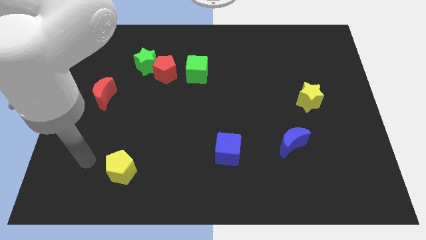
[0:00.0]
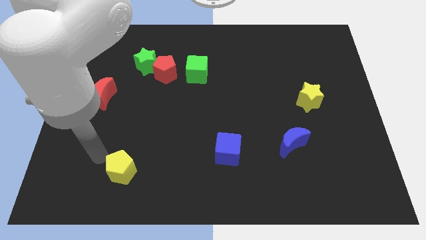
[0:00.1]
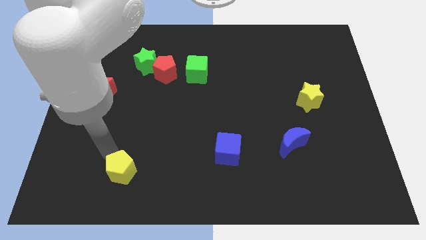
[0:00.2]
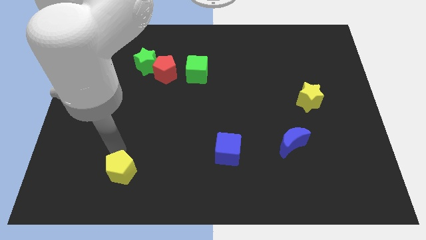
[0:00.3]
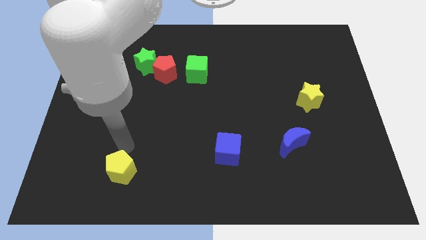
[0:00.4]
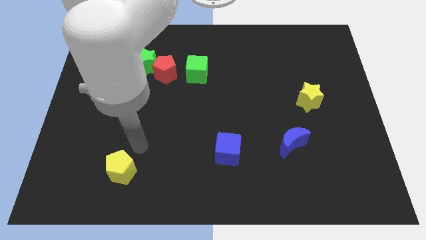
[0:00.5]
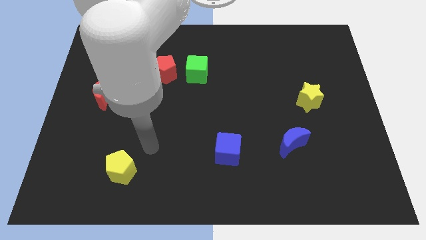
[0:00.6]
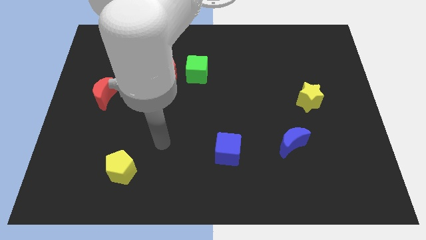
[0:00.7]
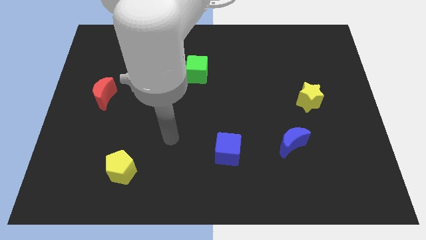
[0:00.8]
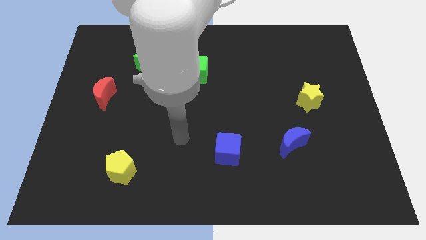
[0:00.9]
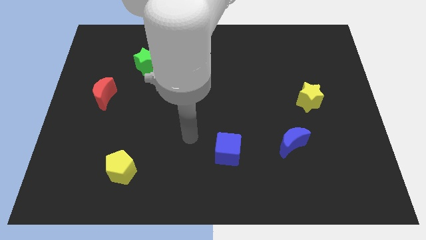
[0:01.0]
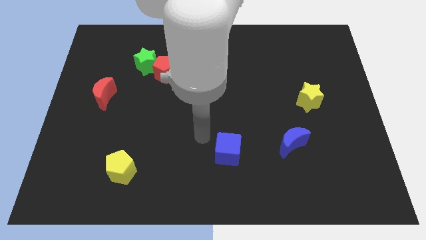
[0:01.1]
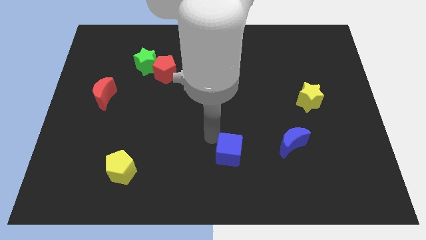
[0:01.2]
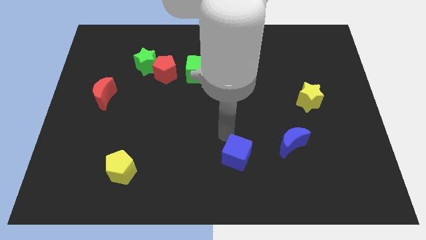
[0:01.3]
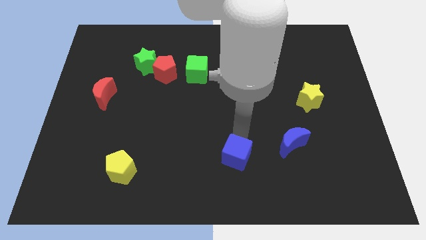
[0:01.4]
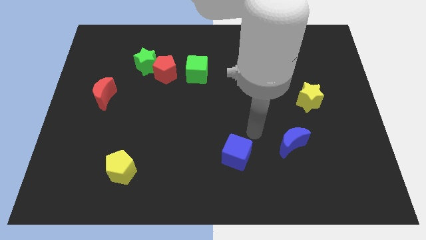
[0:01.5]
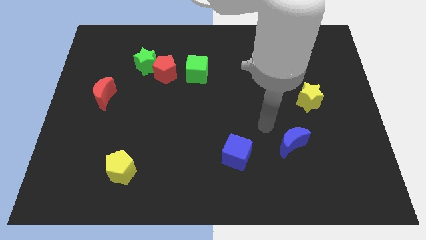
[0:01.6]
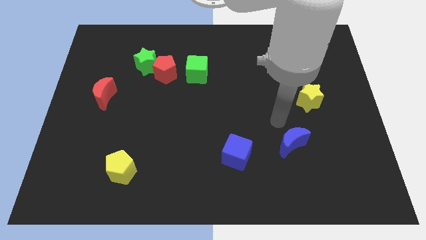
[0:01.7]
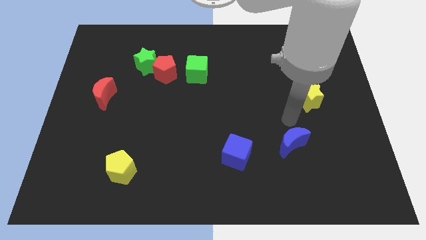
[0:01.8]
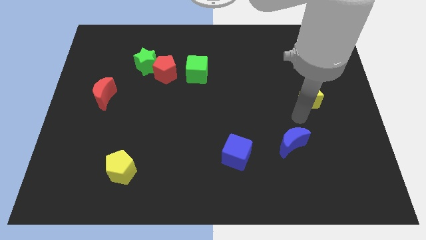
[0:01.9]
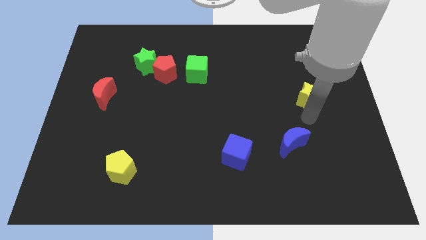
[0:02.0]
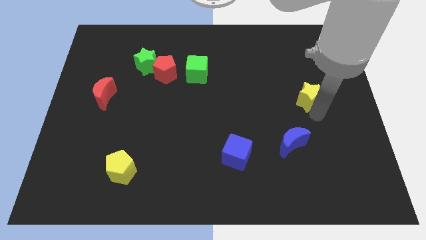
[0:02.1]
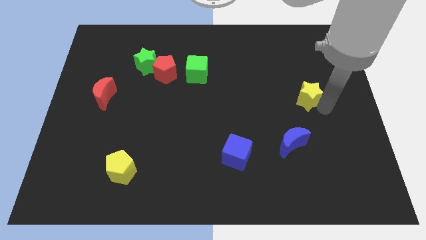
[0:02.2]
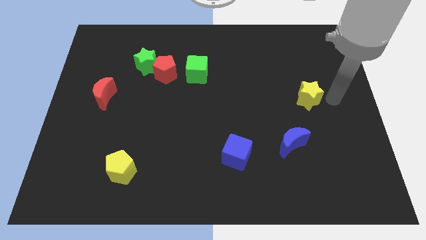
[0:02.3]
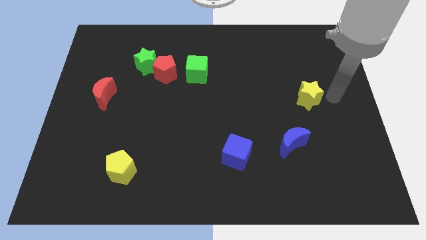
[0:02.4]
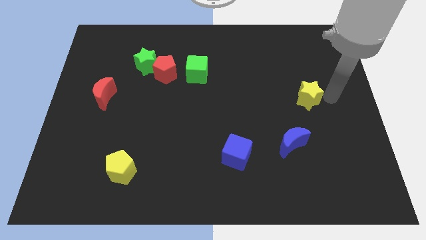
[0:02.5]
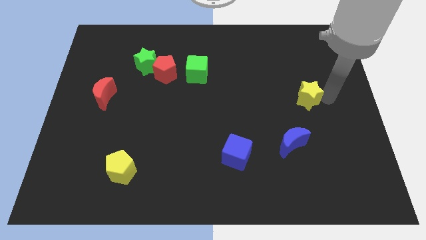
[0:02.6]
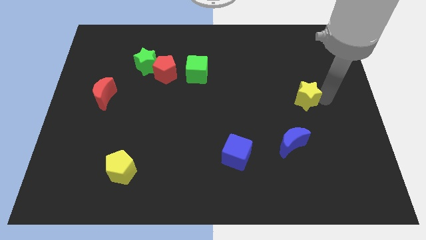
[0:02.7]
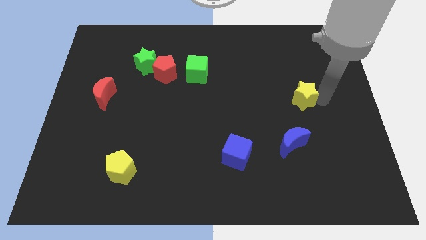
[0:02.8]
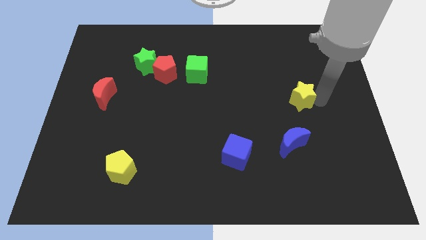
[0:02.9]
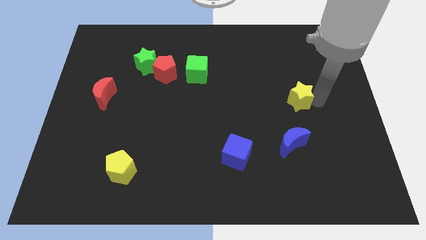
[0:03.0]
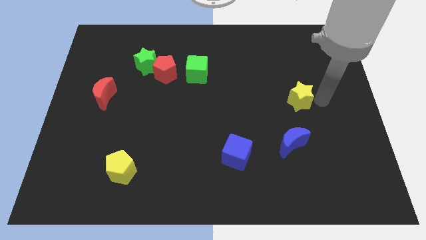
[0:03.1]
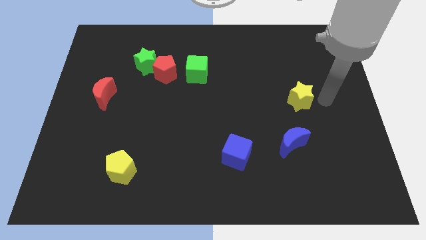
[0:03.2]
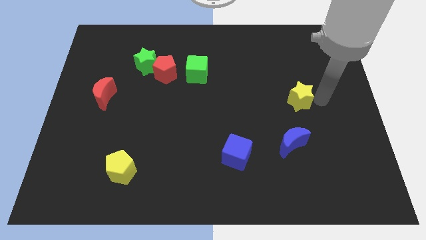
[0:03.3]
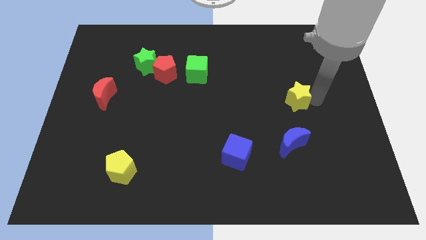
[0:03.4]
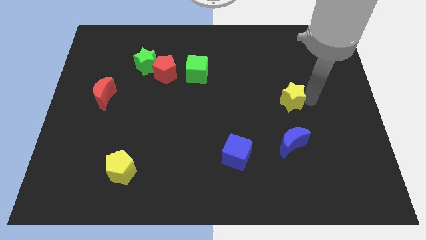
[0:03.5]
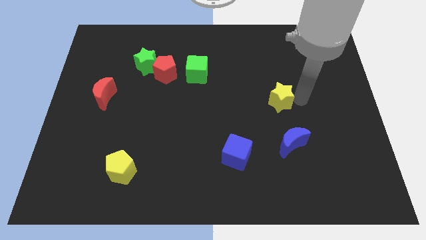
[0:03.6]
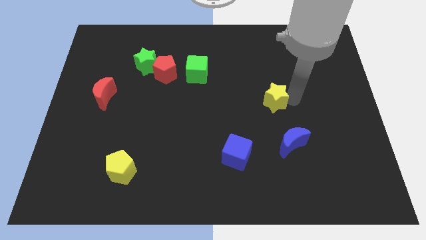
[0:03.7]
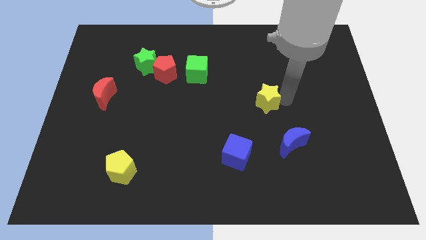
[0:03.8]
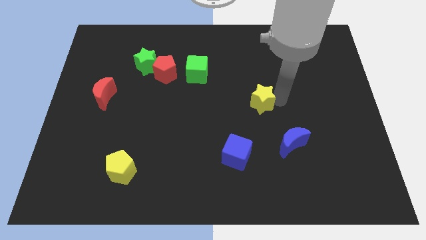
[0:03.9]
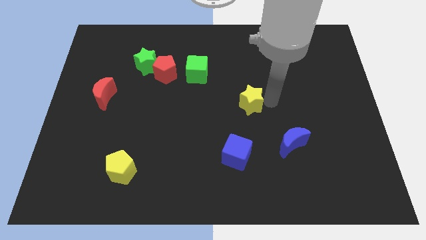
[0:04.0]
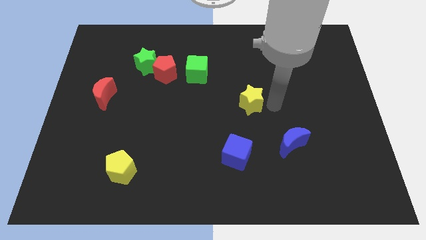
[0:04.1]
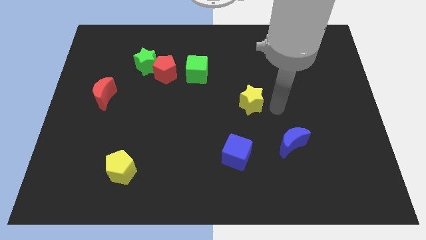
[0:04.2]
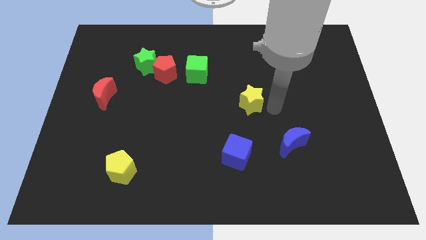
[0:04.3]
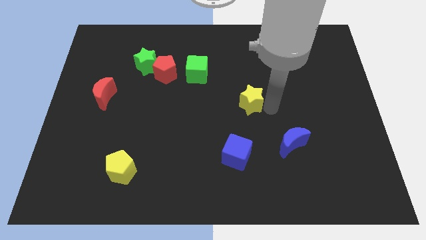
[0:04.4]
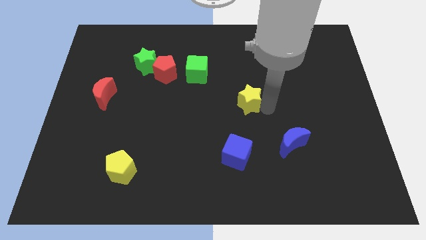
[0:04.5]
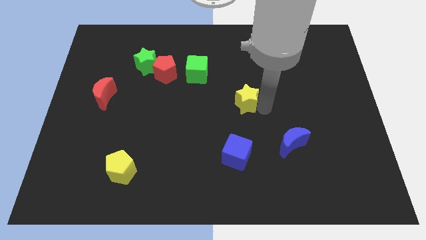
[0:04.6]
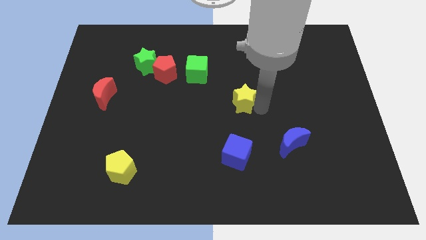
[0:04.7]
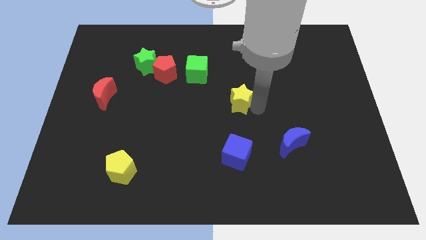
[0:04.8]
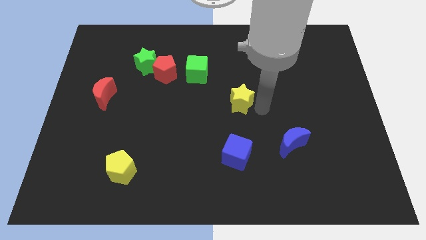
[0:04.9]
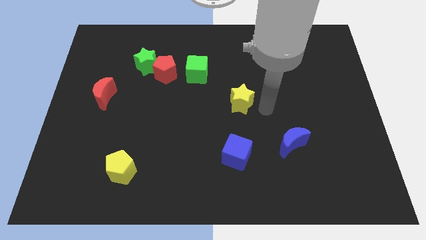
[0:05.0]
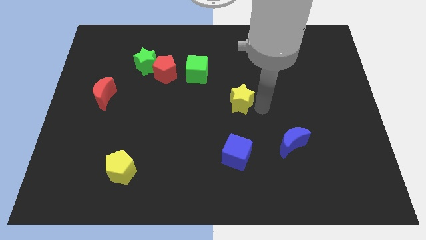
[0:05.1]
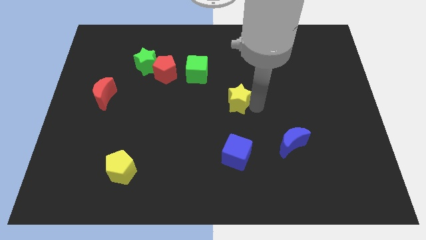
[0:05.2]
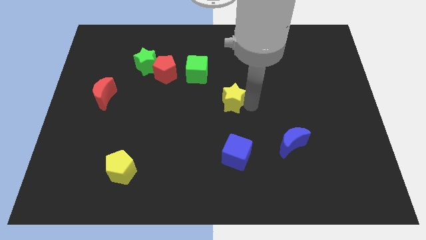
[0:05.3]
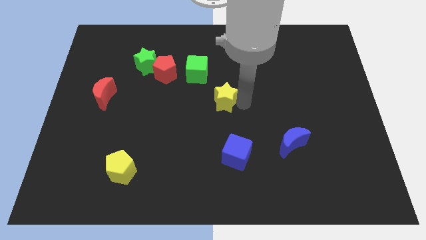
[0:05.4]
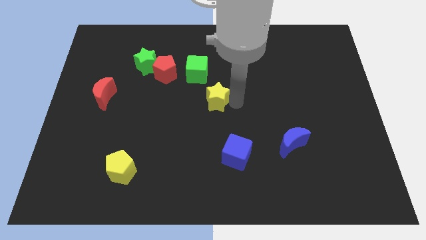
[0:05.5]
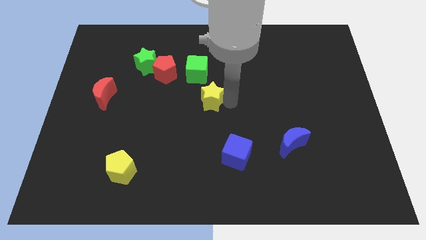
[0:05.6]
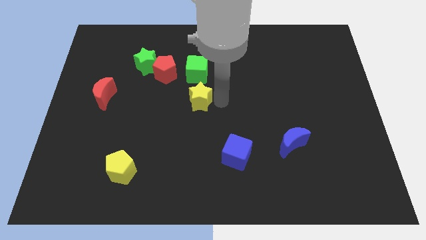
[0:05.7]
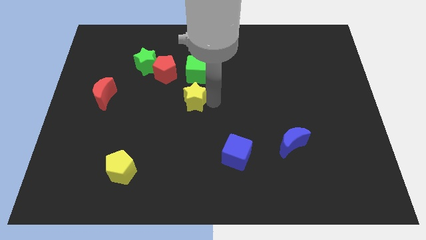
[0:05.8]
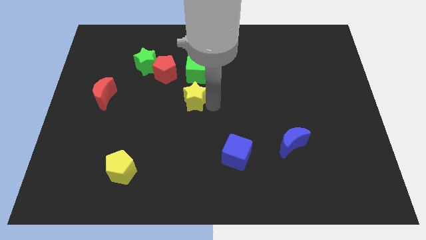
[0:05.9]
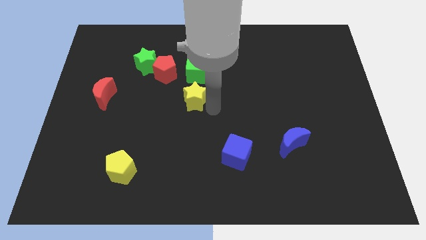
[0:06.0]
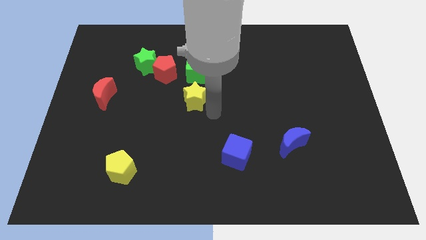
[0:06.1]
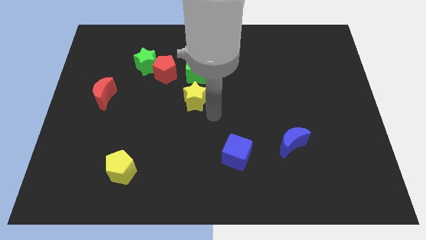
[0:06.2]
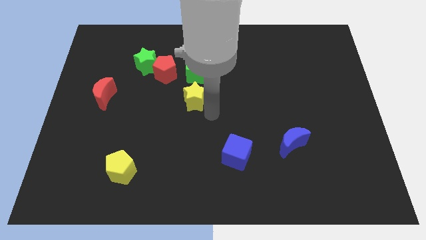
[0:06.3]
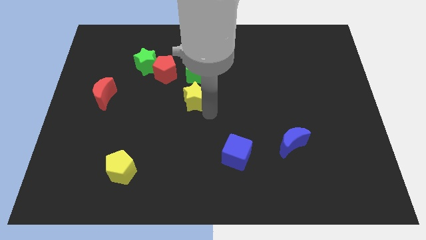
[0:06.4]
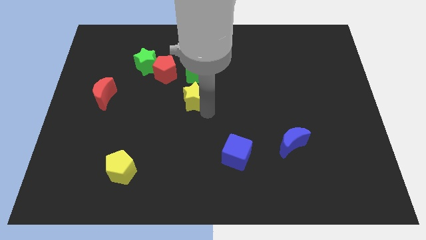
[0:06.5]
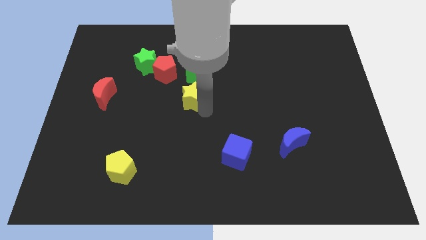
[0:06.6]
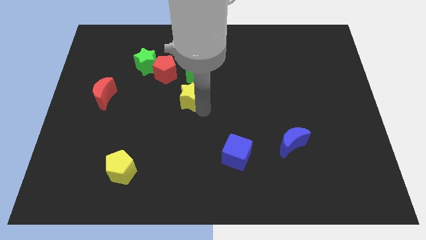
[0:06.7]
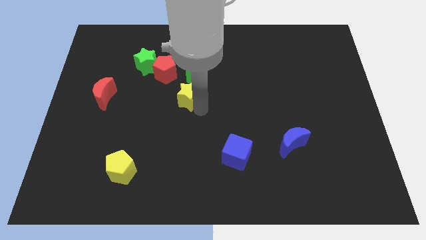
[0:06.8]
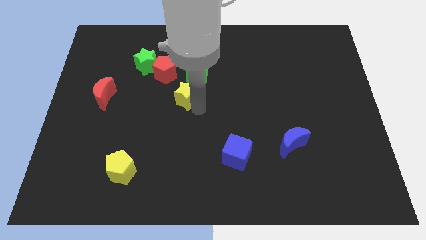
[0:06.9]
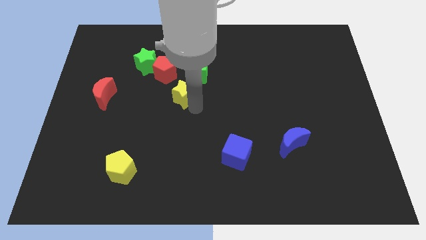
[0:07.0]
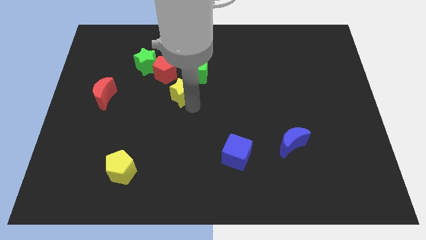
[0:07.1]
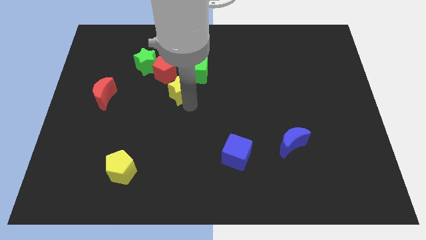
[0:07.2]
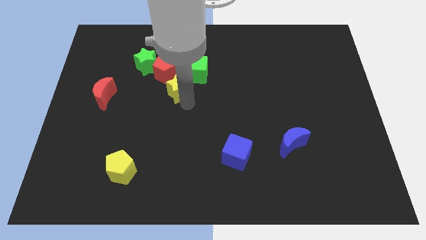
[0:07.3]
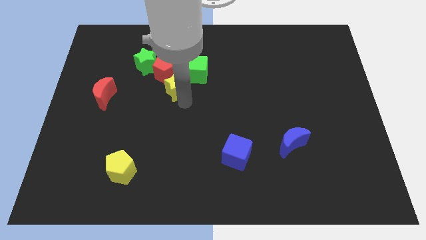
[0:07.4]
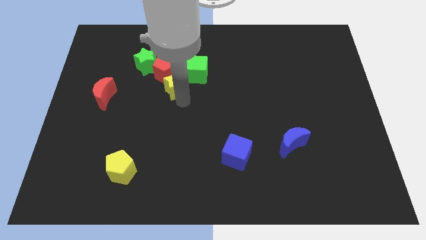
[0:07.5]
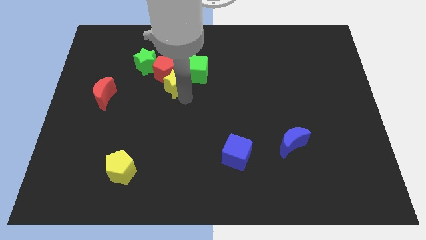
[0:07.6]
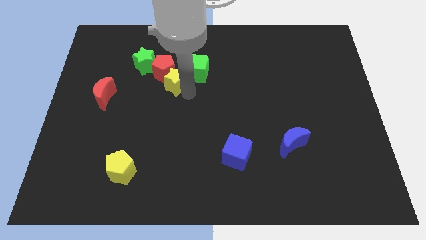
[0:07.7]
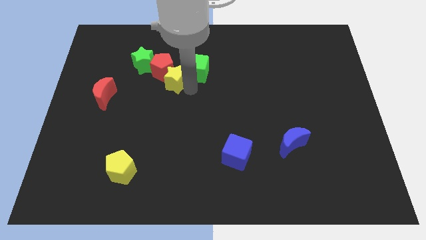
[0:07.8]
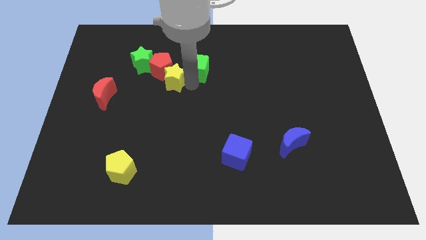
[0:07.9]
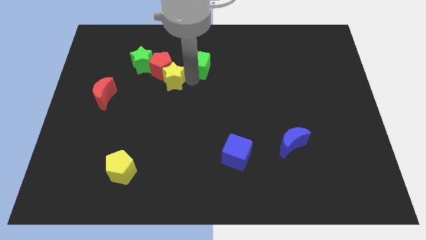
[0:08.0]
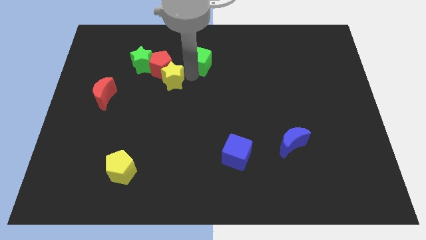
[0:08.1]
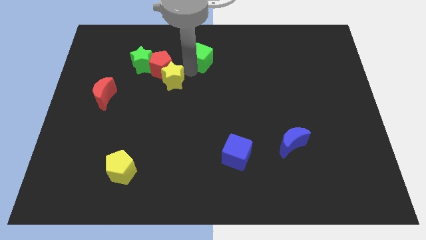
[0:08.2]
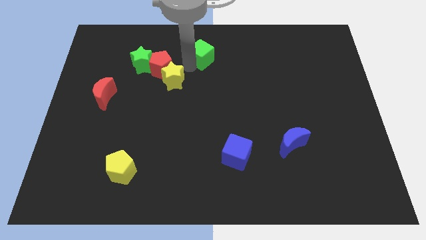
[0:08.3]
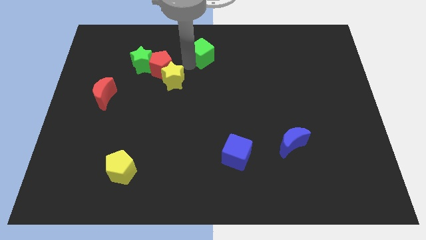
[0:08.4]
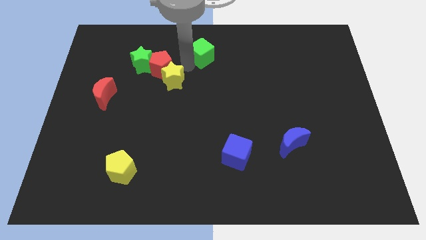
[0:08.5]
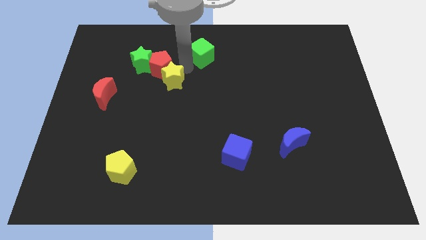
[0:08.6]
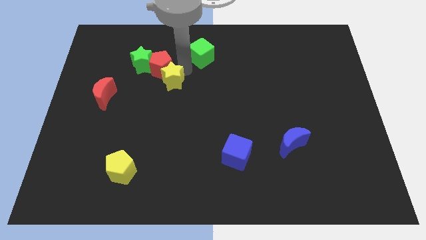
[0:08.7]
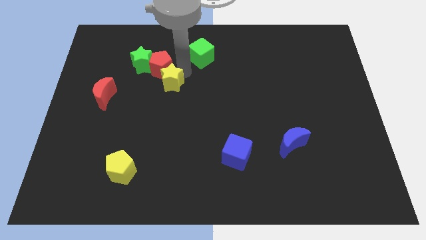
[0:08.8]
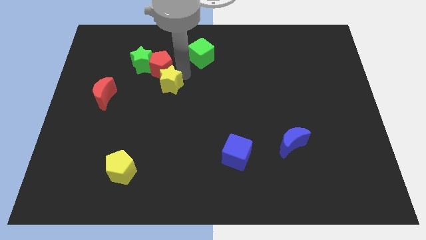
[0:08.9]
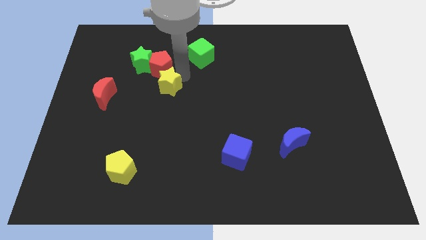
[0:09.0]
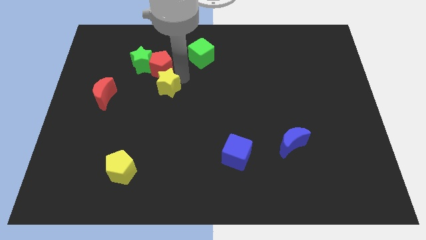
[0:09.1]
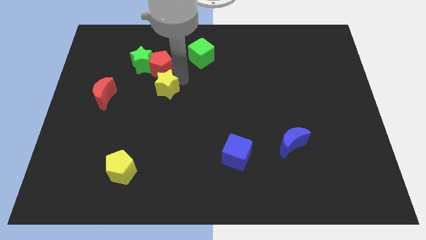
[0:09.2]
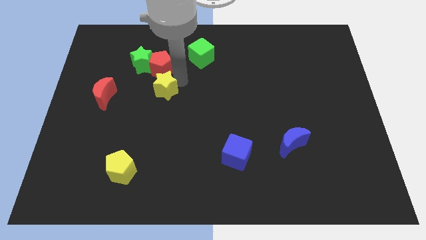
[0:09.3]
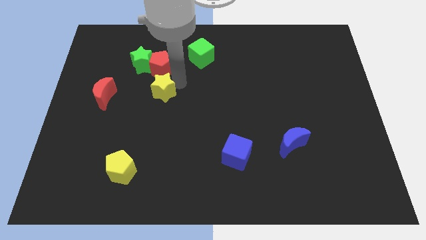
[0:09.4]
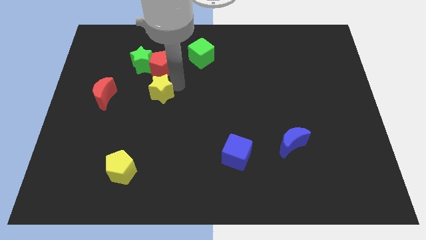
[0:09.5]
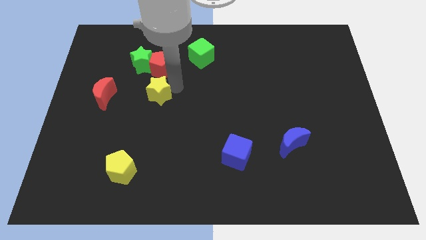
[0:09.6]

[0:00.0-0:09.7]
push the yellow star to the bottom side of the green star
